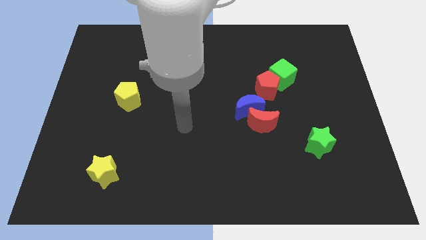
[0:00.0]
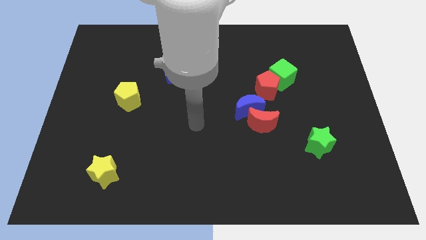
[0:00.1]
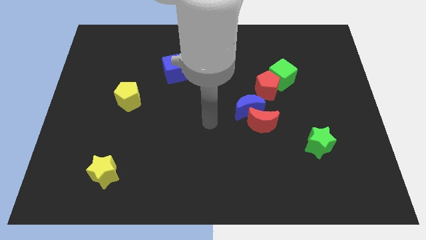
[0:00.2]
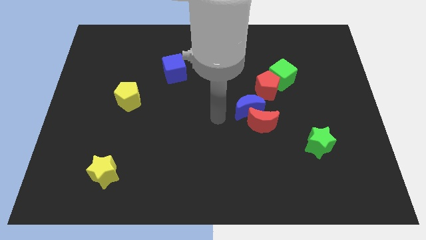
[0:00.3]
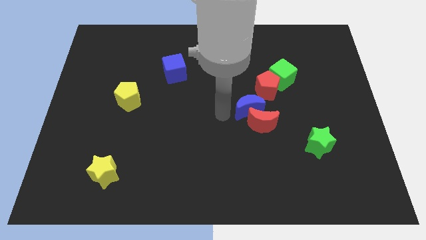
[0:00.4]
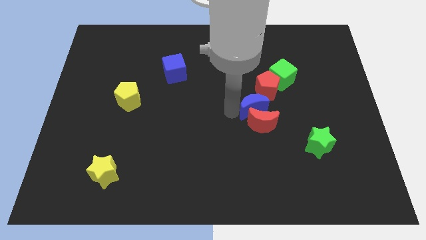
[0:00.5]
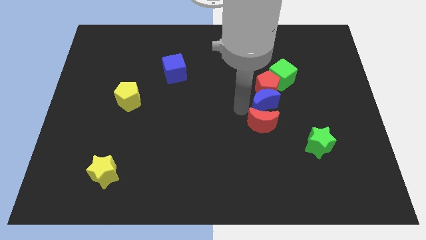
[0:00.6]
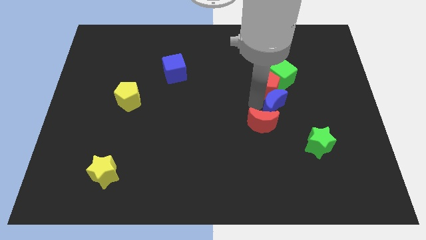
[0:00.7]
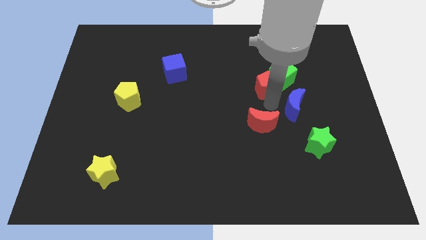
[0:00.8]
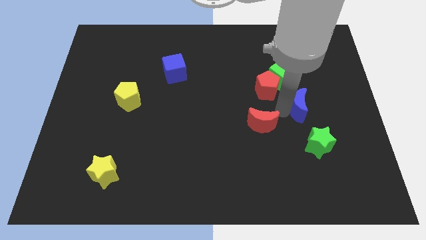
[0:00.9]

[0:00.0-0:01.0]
pull the red moon apart from the blue moon

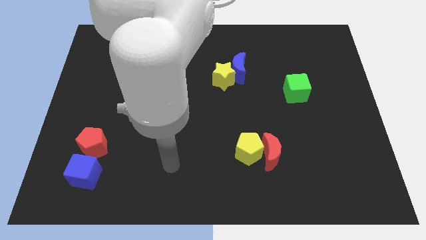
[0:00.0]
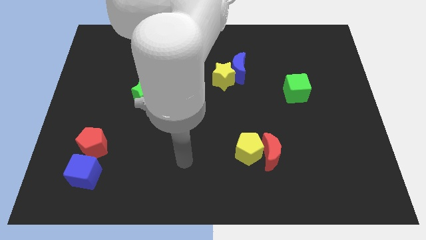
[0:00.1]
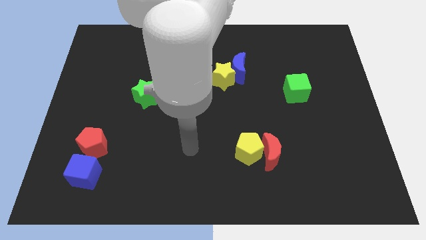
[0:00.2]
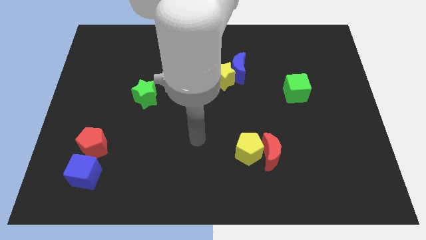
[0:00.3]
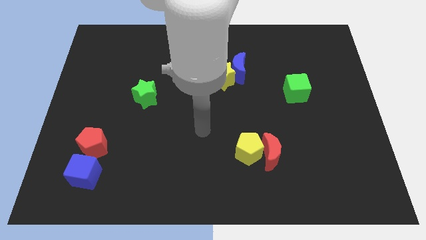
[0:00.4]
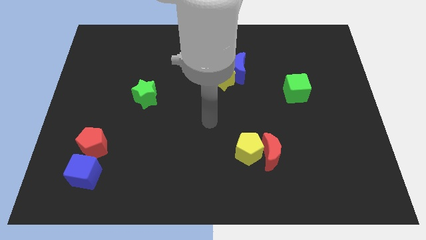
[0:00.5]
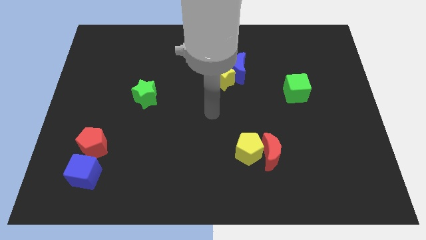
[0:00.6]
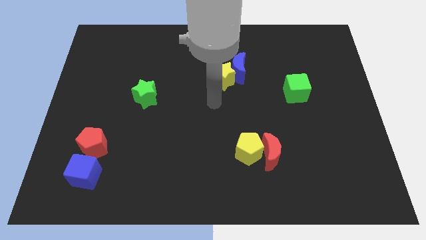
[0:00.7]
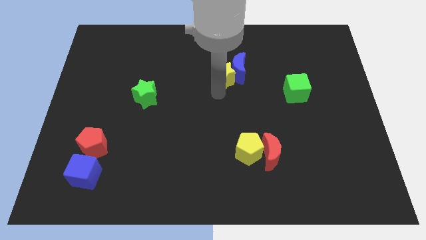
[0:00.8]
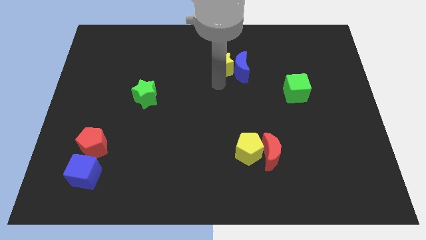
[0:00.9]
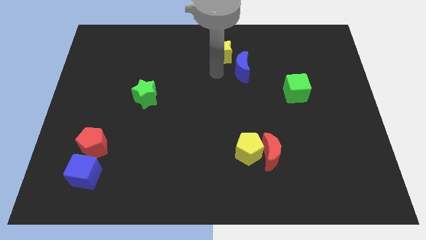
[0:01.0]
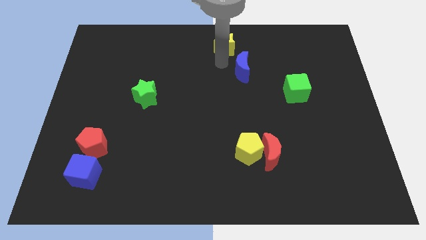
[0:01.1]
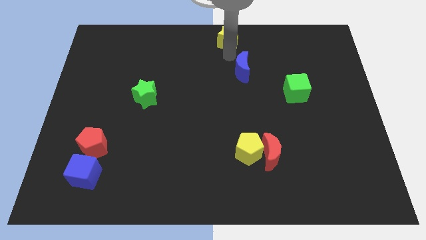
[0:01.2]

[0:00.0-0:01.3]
pull the blue moon apart from the yellow star

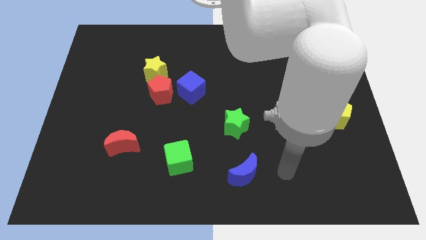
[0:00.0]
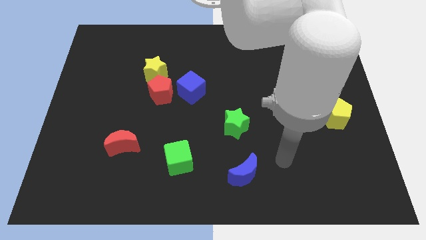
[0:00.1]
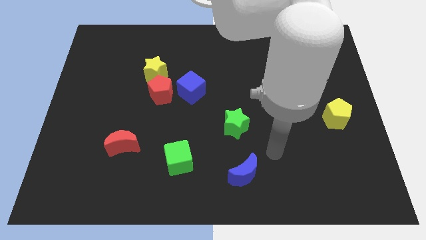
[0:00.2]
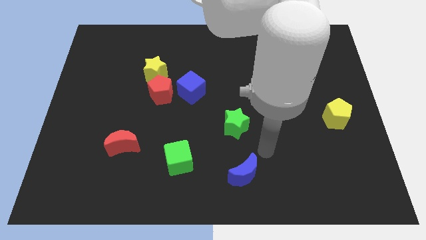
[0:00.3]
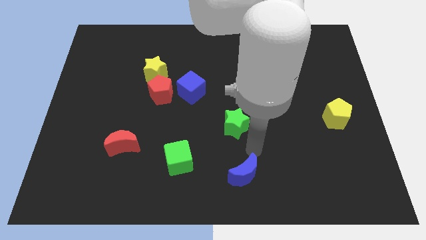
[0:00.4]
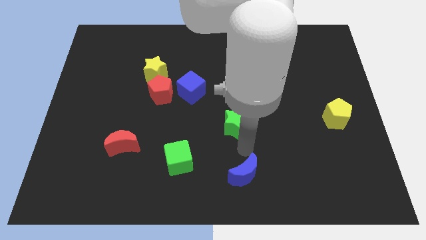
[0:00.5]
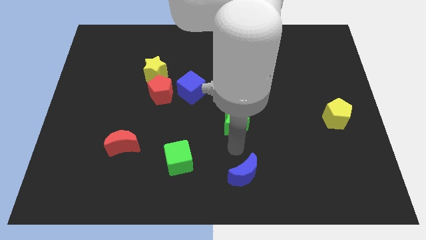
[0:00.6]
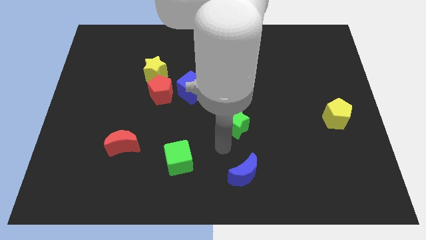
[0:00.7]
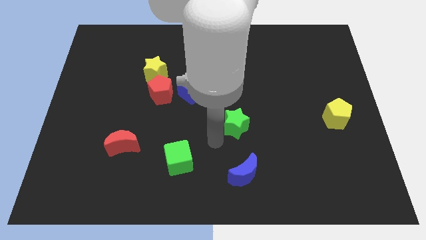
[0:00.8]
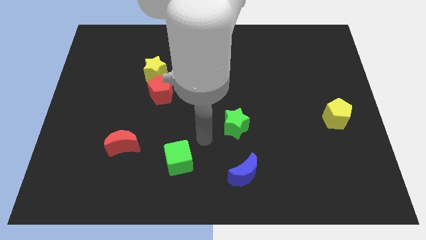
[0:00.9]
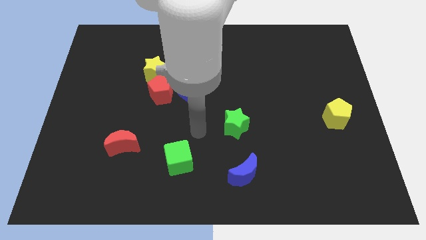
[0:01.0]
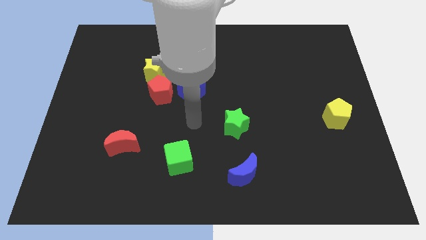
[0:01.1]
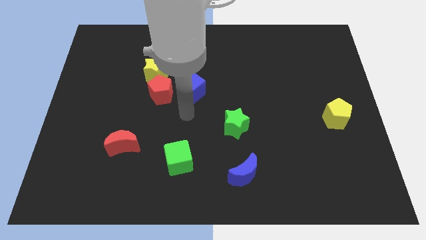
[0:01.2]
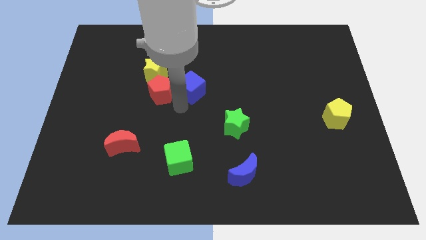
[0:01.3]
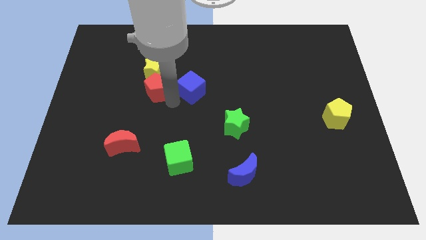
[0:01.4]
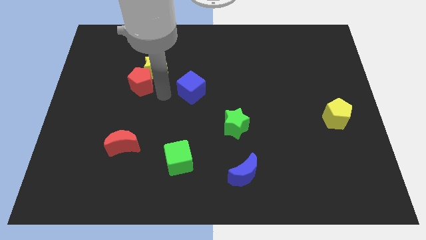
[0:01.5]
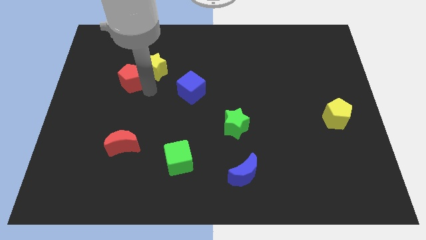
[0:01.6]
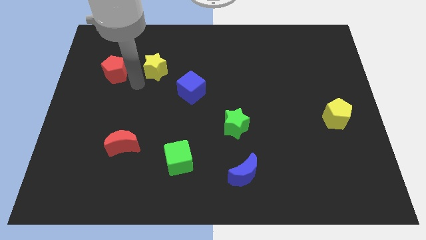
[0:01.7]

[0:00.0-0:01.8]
move the yellow star away from the red pentagon

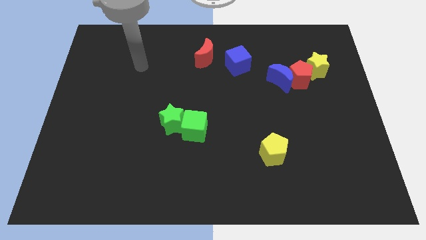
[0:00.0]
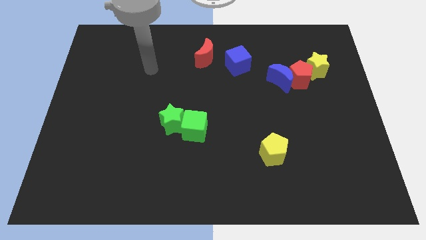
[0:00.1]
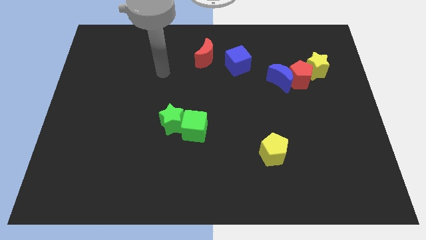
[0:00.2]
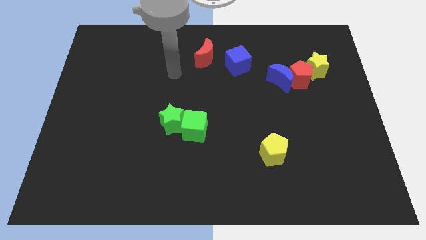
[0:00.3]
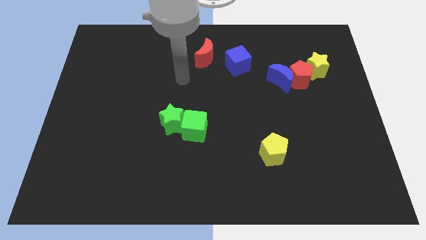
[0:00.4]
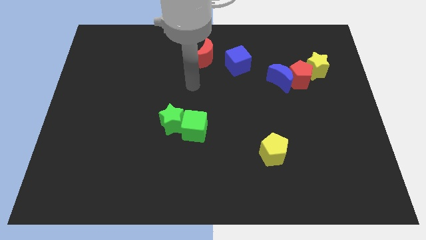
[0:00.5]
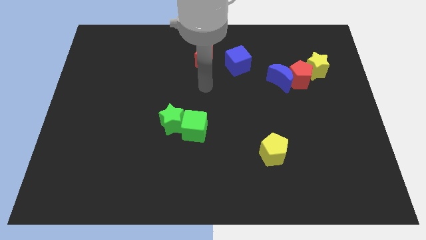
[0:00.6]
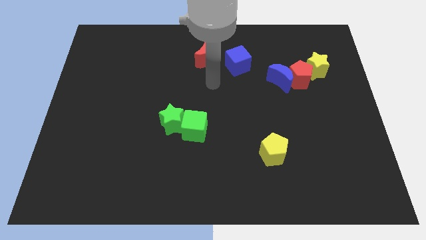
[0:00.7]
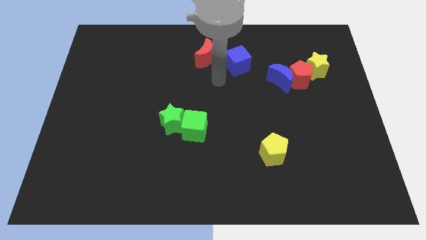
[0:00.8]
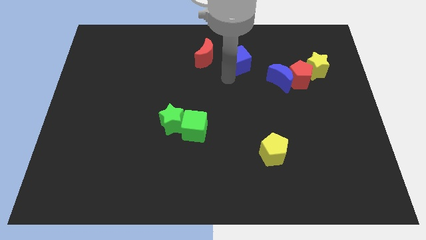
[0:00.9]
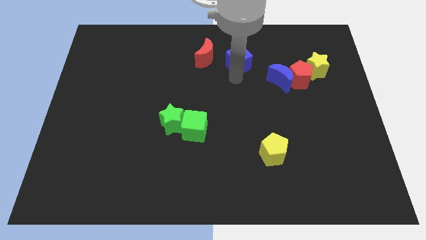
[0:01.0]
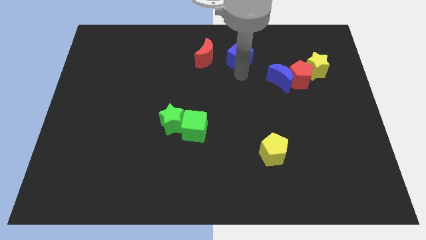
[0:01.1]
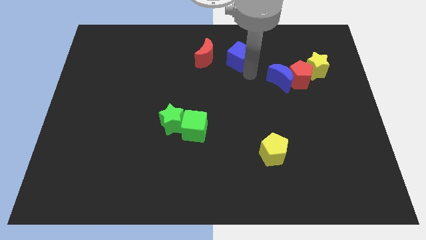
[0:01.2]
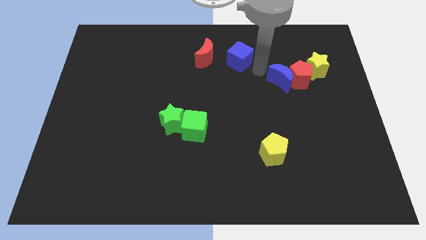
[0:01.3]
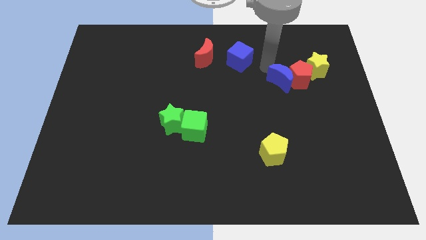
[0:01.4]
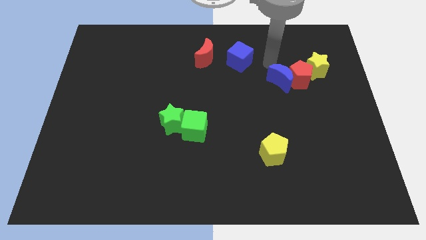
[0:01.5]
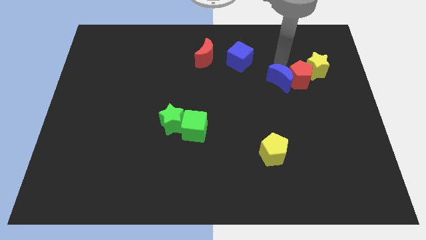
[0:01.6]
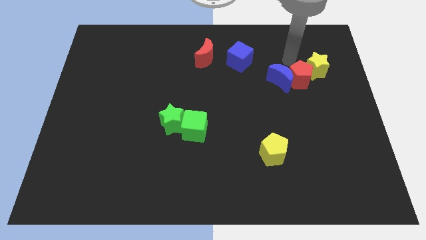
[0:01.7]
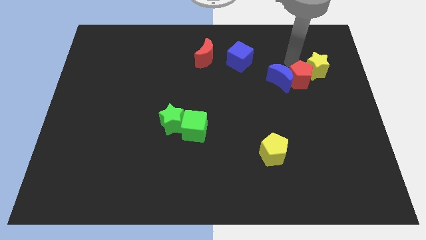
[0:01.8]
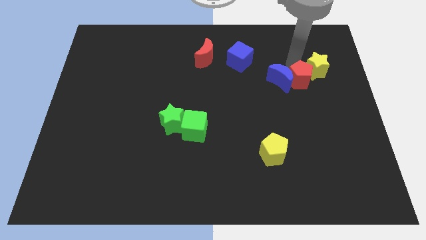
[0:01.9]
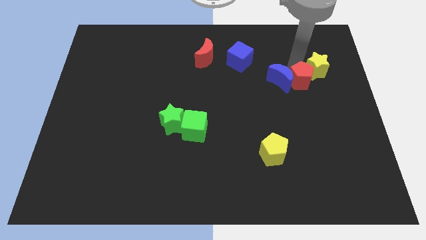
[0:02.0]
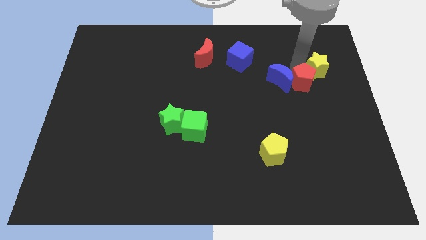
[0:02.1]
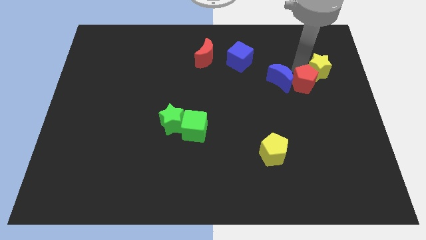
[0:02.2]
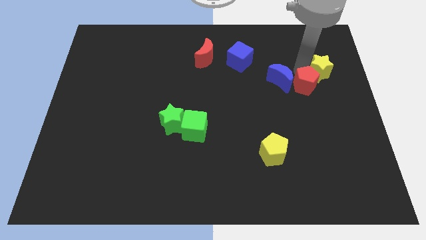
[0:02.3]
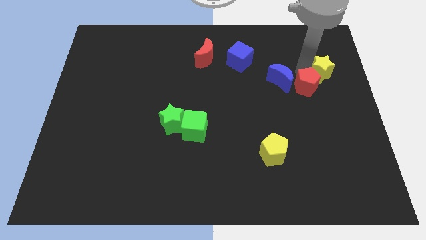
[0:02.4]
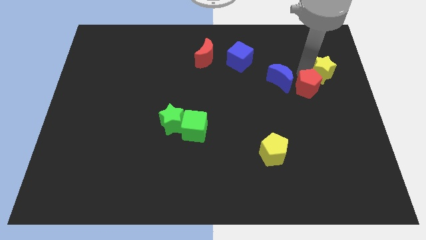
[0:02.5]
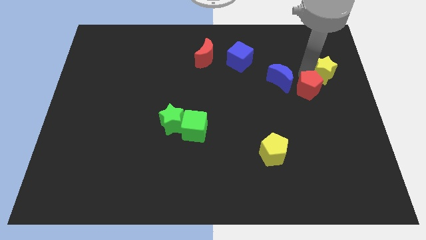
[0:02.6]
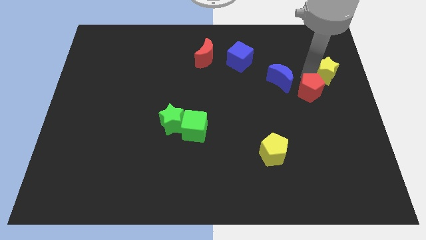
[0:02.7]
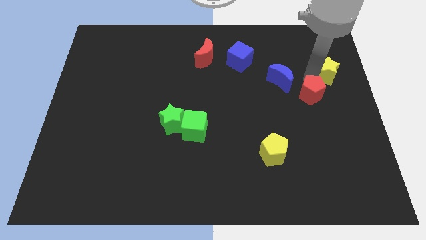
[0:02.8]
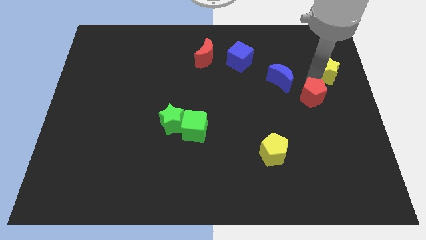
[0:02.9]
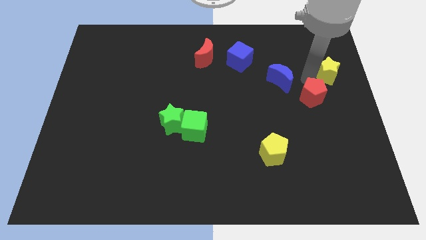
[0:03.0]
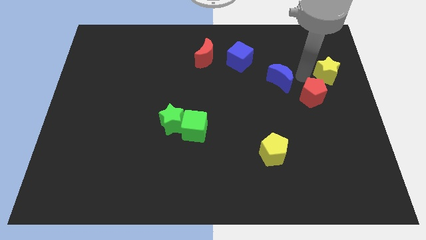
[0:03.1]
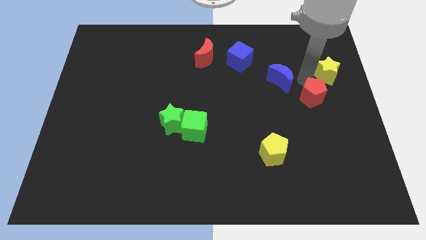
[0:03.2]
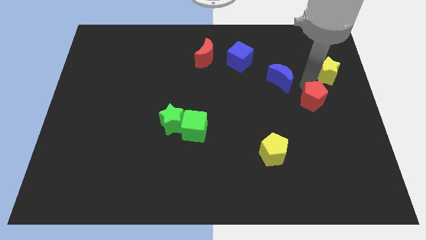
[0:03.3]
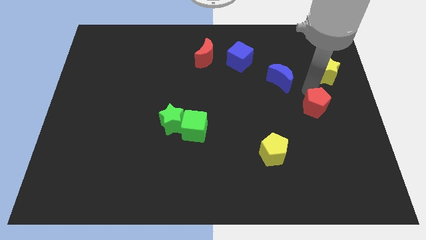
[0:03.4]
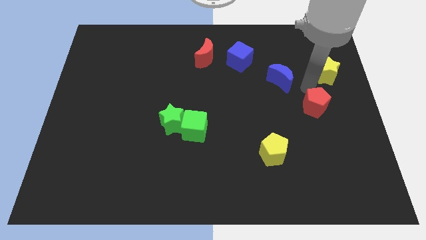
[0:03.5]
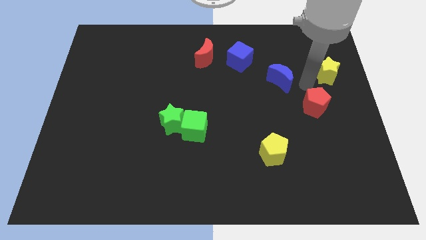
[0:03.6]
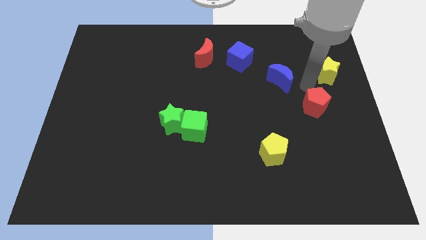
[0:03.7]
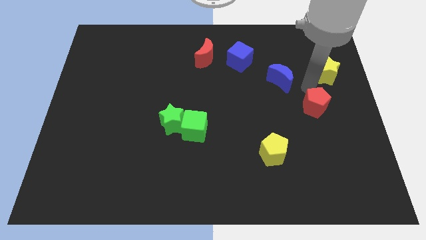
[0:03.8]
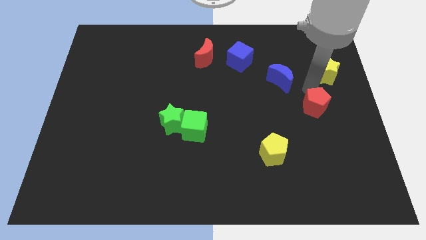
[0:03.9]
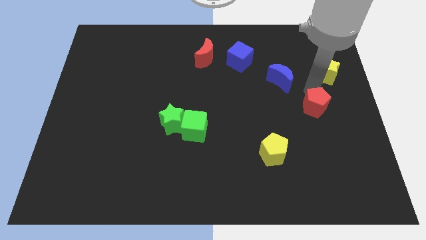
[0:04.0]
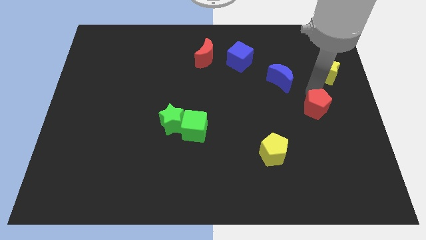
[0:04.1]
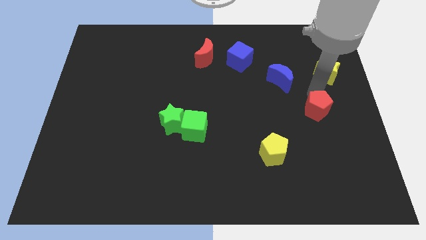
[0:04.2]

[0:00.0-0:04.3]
move the red pentagon away from the blue moon and yellow star

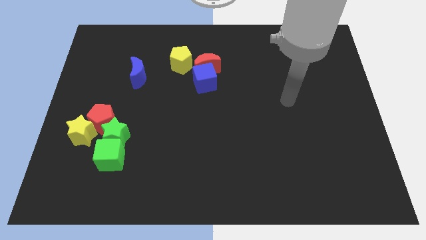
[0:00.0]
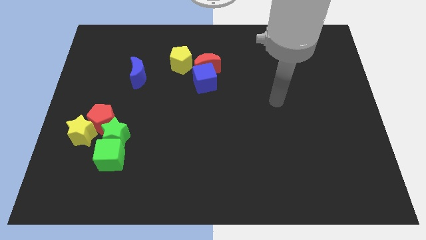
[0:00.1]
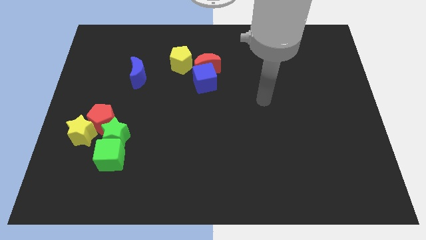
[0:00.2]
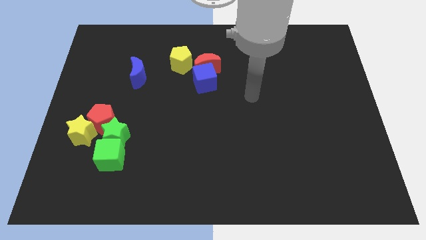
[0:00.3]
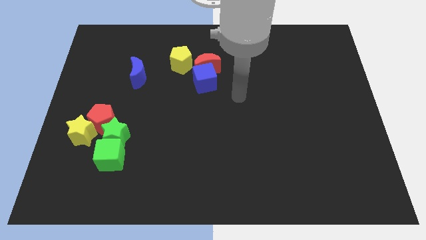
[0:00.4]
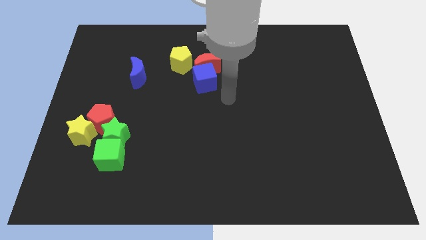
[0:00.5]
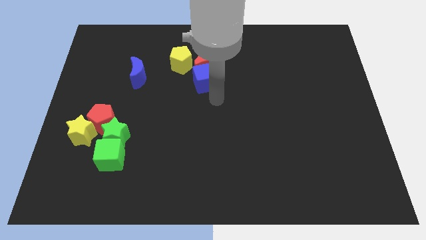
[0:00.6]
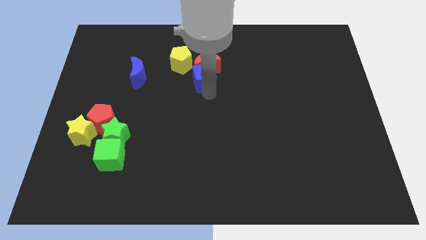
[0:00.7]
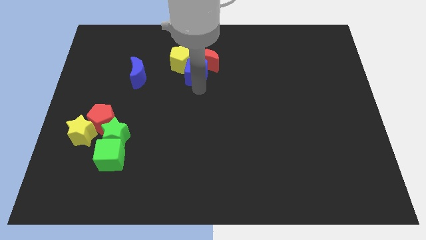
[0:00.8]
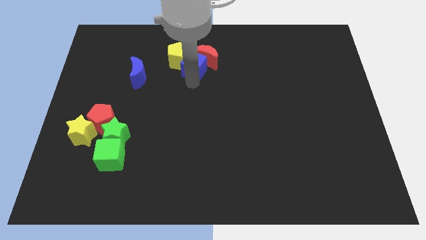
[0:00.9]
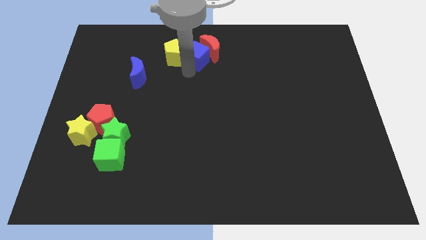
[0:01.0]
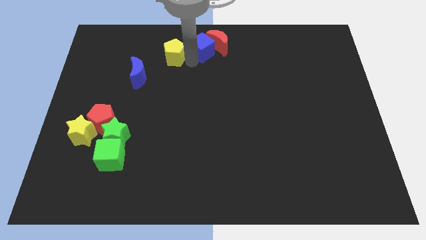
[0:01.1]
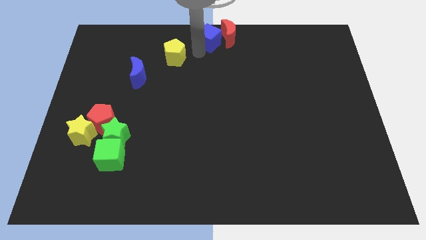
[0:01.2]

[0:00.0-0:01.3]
move the red moon away from the blue cube and yellow pentagon
